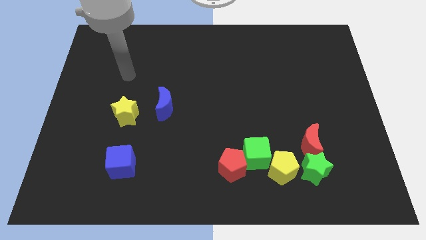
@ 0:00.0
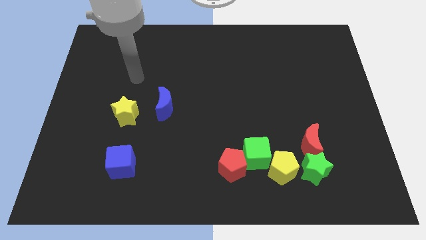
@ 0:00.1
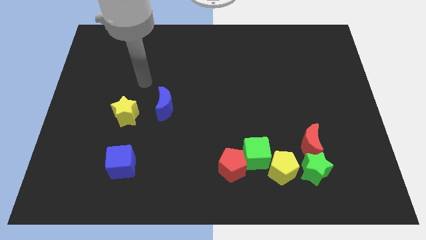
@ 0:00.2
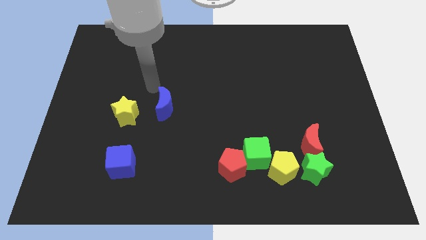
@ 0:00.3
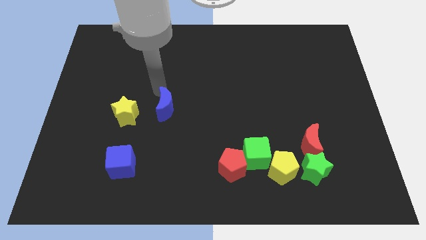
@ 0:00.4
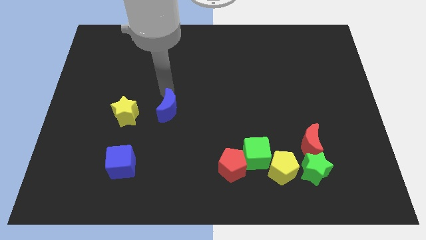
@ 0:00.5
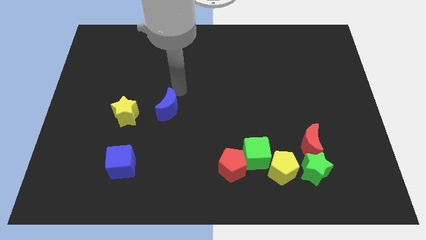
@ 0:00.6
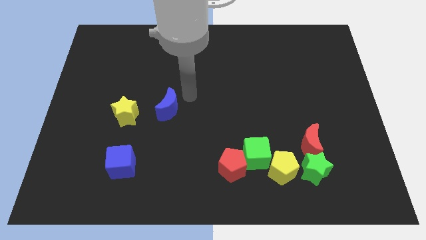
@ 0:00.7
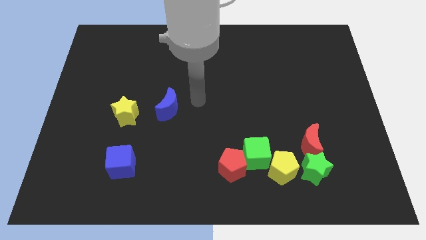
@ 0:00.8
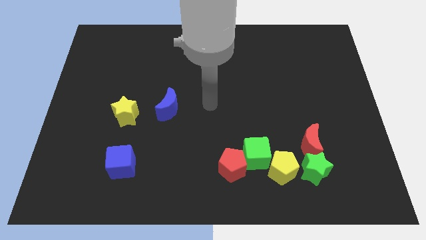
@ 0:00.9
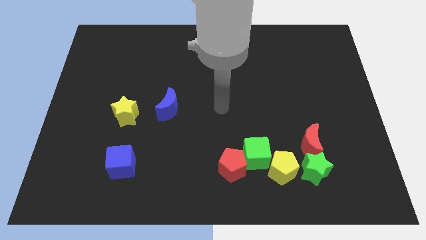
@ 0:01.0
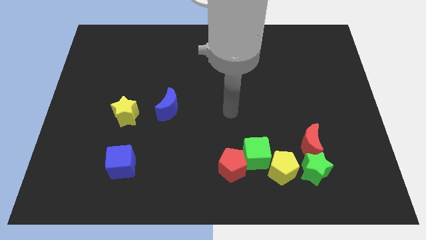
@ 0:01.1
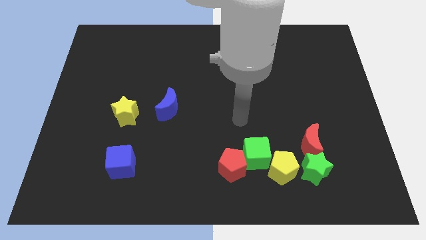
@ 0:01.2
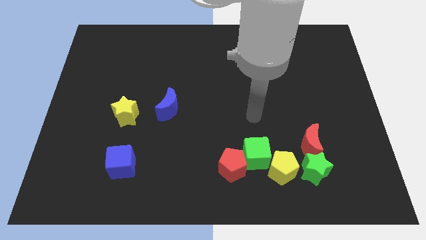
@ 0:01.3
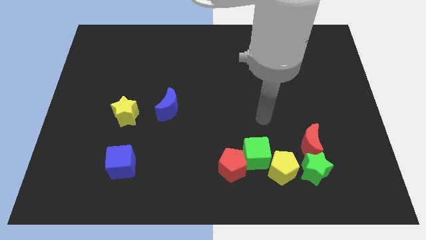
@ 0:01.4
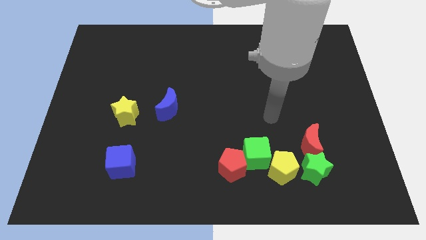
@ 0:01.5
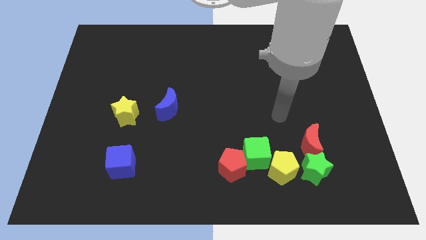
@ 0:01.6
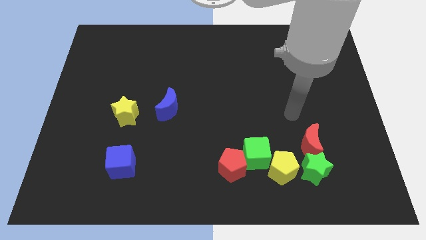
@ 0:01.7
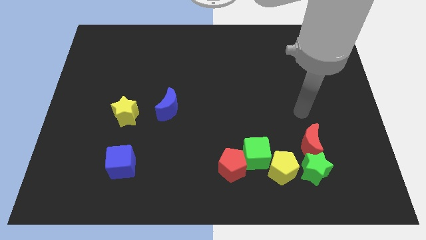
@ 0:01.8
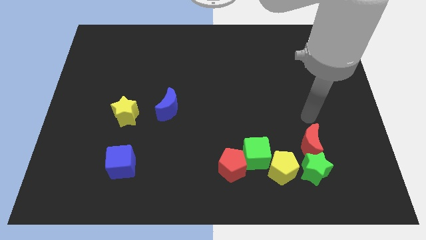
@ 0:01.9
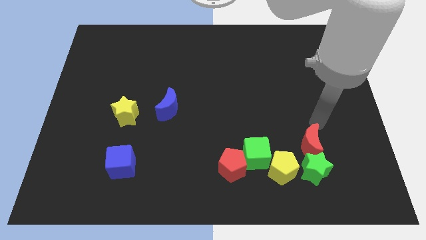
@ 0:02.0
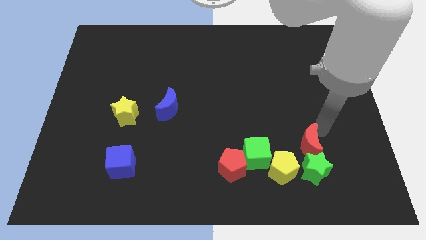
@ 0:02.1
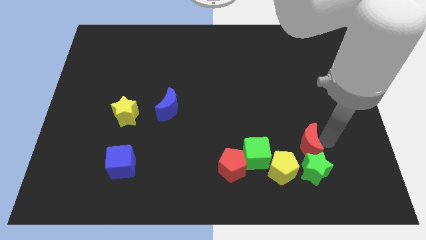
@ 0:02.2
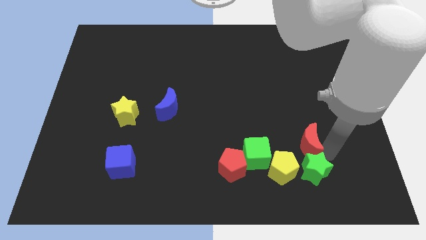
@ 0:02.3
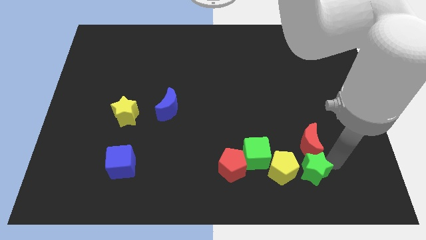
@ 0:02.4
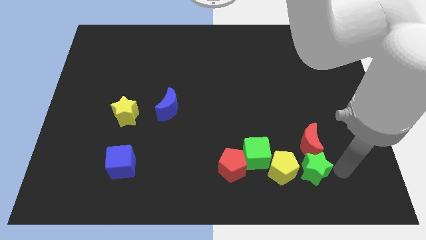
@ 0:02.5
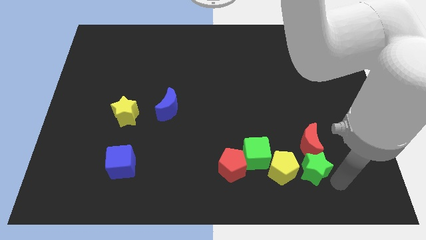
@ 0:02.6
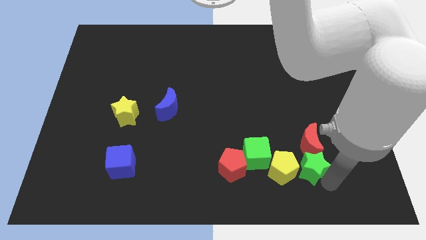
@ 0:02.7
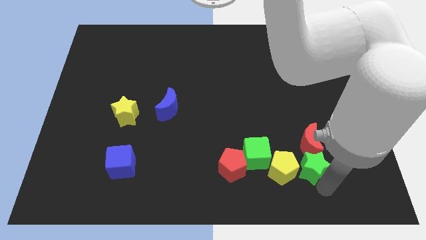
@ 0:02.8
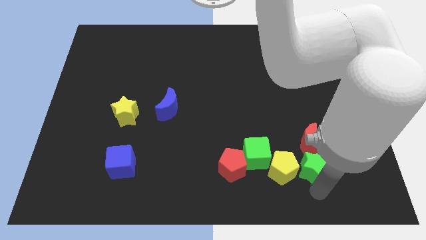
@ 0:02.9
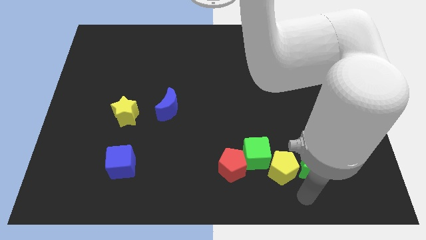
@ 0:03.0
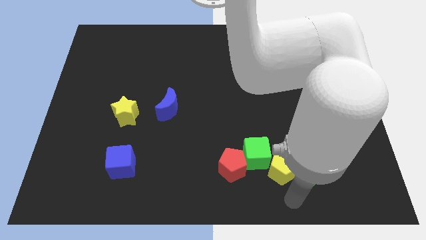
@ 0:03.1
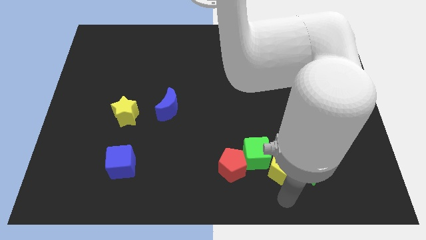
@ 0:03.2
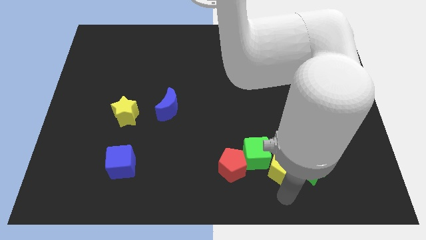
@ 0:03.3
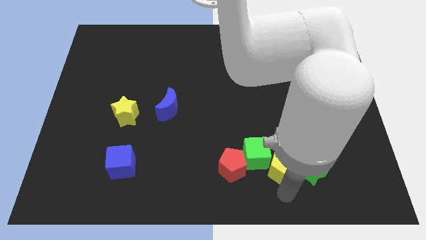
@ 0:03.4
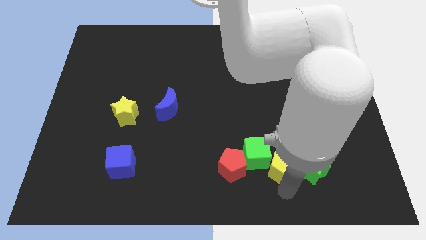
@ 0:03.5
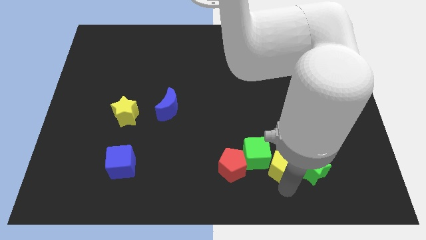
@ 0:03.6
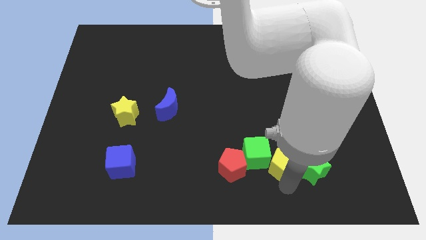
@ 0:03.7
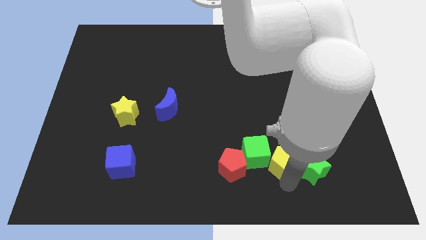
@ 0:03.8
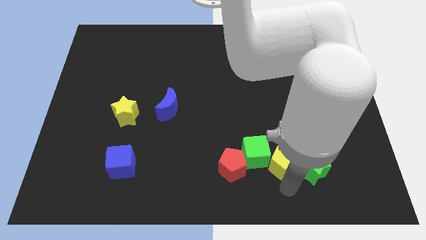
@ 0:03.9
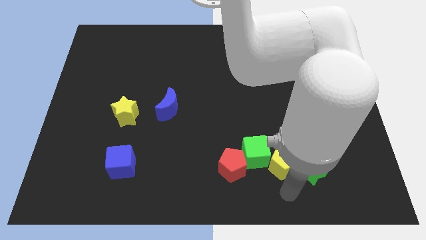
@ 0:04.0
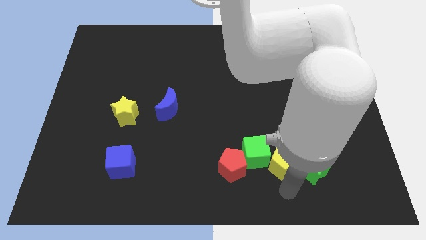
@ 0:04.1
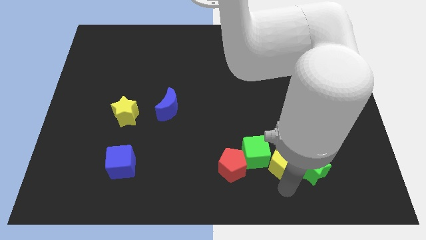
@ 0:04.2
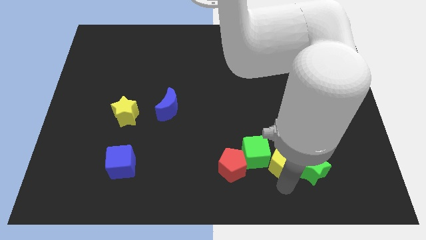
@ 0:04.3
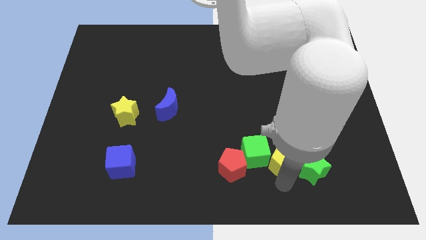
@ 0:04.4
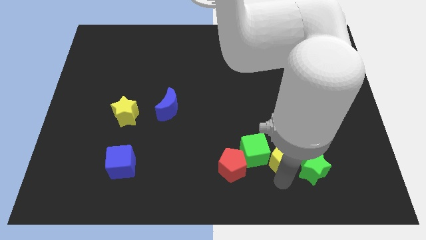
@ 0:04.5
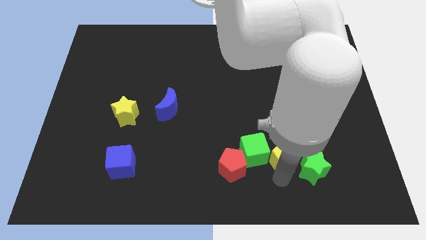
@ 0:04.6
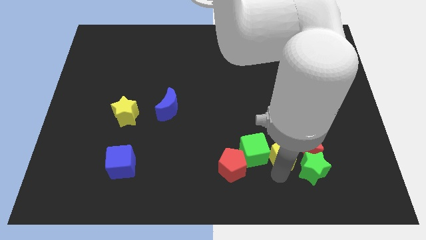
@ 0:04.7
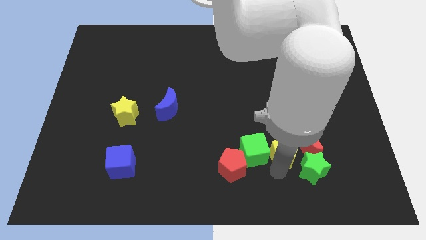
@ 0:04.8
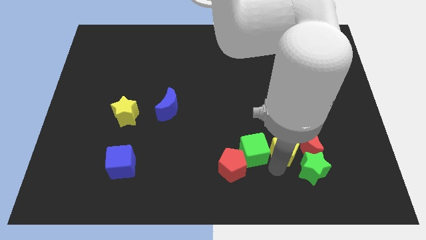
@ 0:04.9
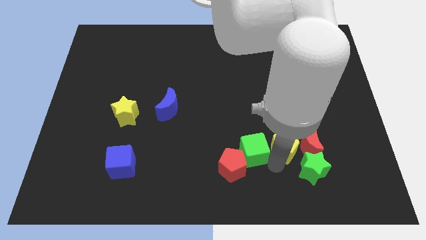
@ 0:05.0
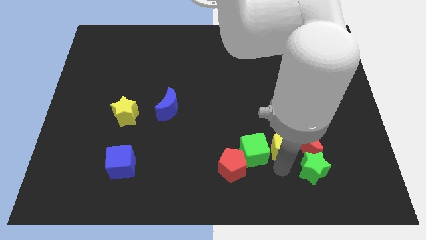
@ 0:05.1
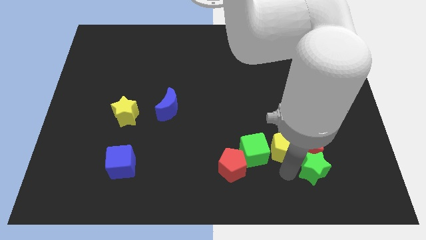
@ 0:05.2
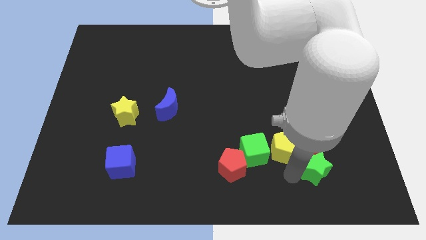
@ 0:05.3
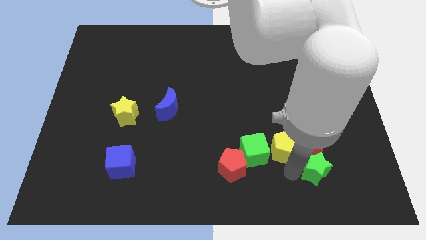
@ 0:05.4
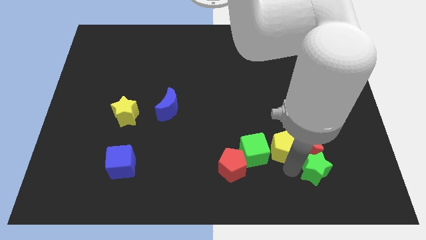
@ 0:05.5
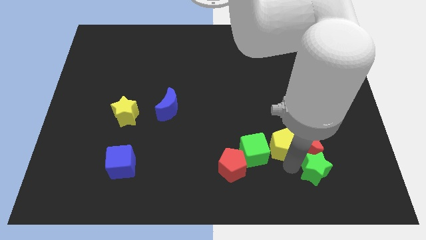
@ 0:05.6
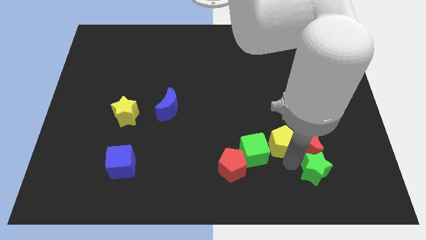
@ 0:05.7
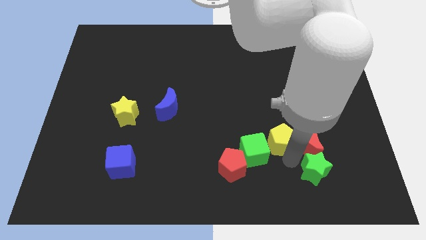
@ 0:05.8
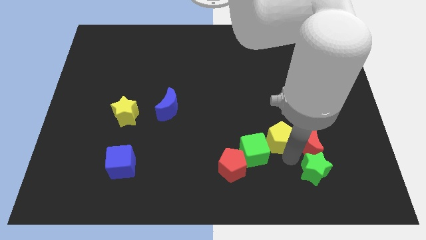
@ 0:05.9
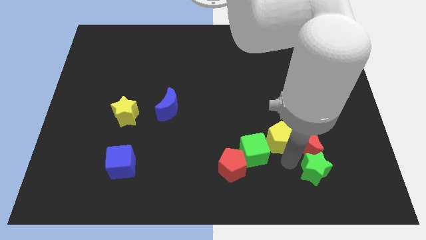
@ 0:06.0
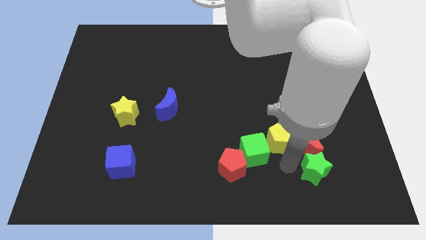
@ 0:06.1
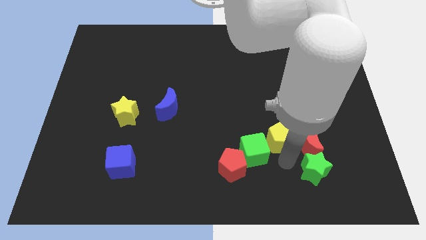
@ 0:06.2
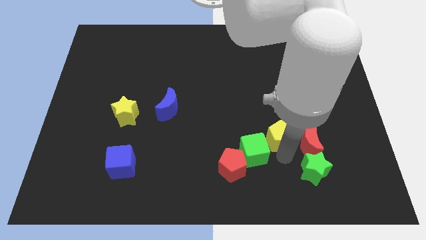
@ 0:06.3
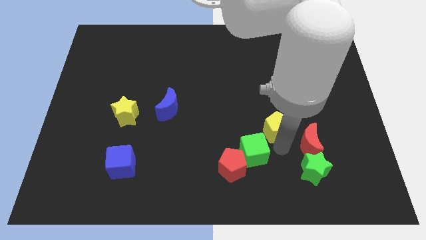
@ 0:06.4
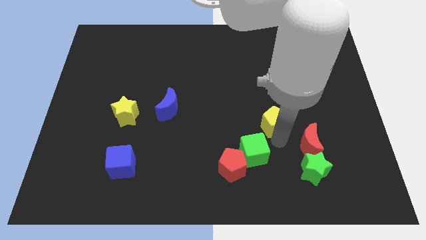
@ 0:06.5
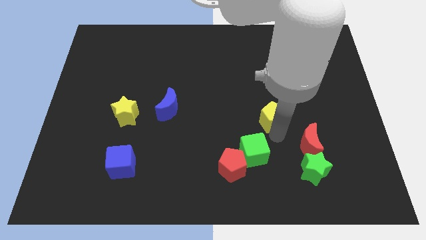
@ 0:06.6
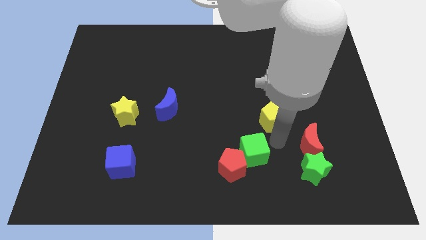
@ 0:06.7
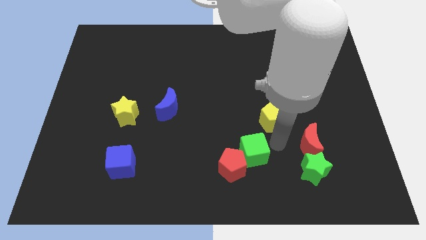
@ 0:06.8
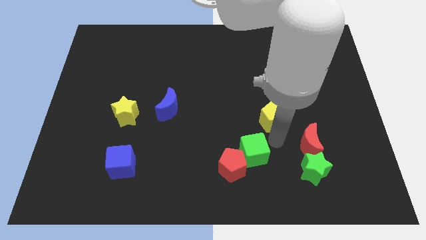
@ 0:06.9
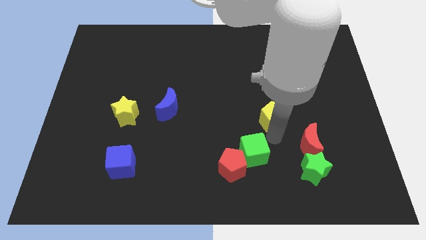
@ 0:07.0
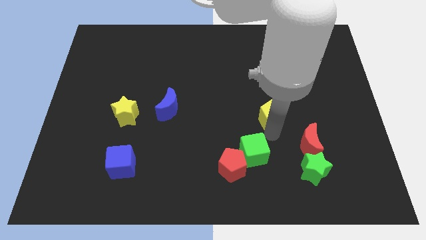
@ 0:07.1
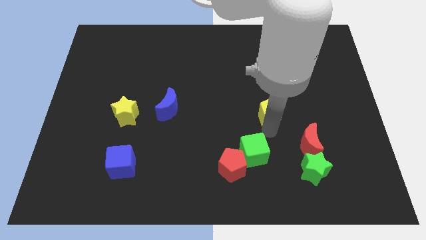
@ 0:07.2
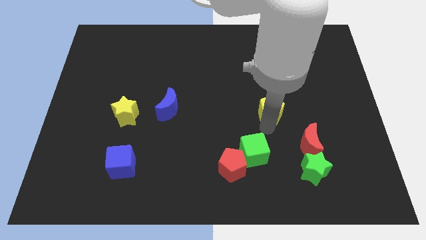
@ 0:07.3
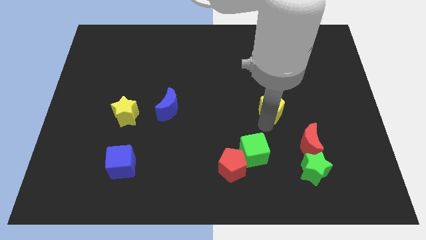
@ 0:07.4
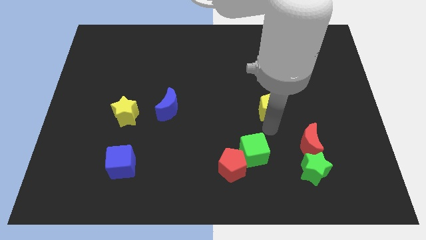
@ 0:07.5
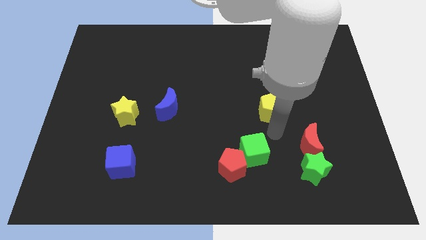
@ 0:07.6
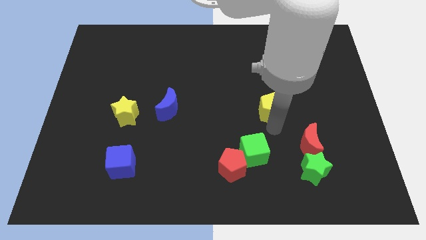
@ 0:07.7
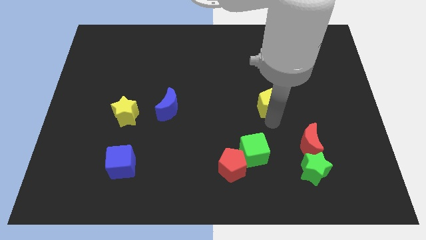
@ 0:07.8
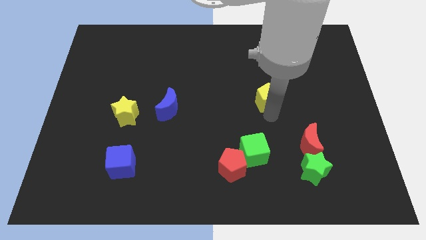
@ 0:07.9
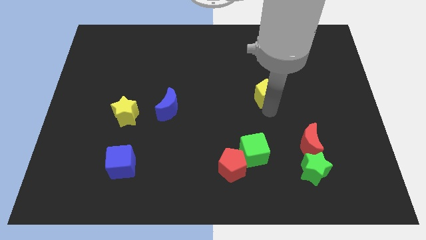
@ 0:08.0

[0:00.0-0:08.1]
slide the yellow pentagon upwards
